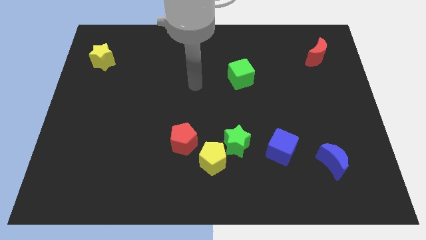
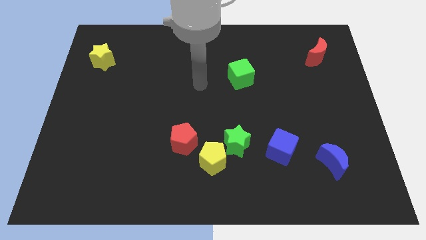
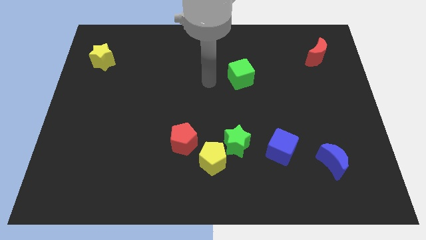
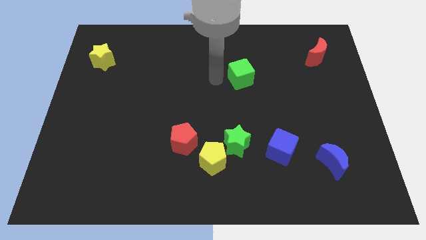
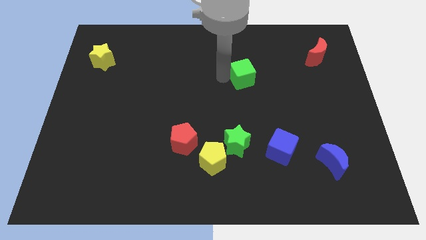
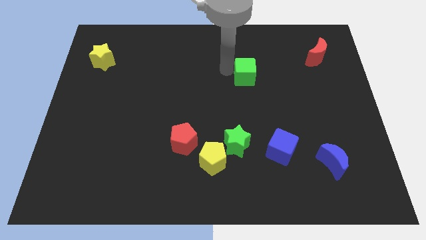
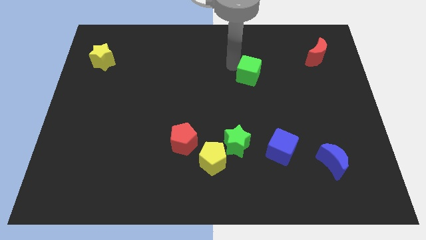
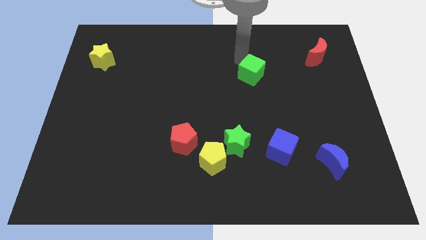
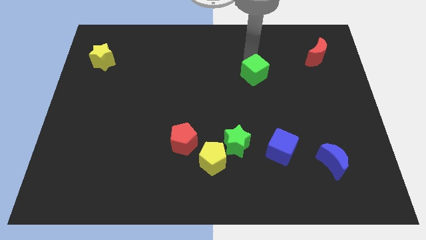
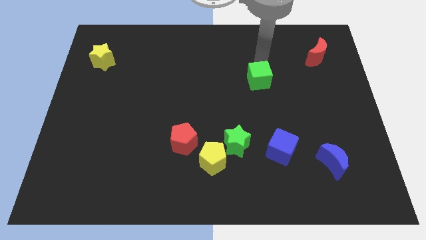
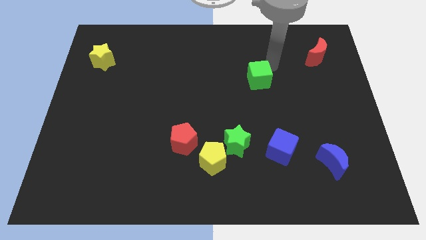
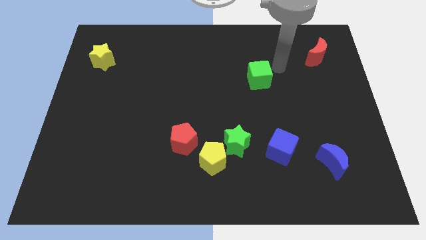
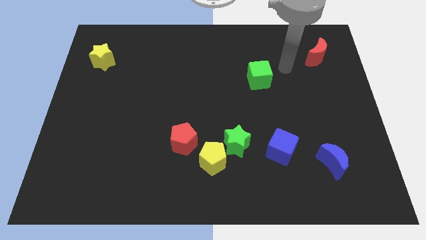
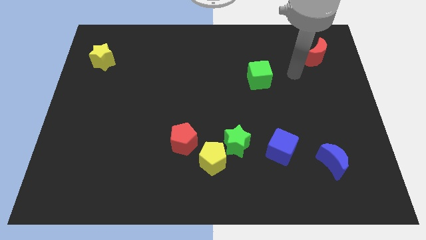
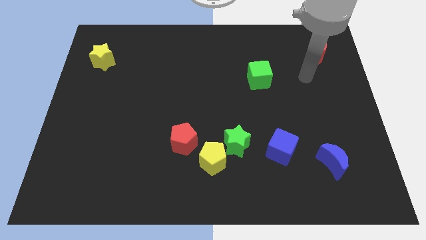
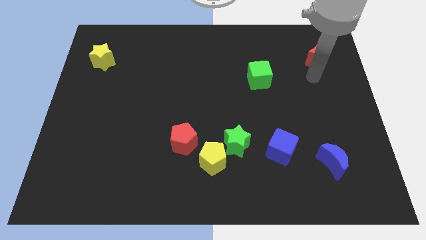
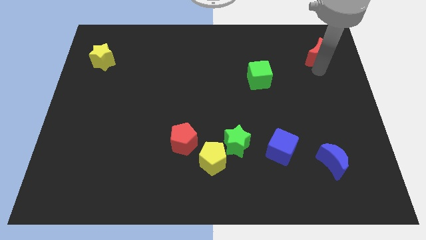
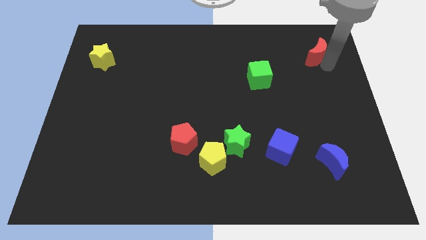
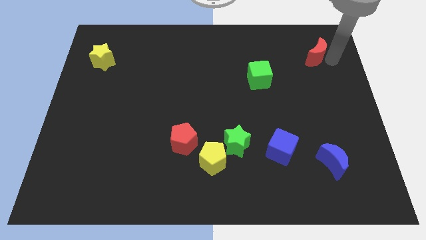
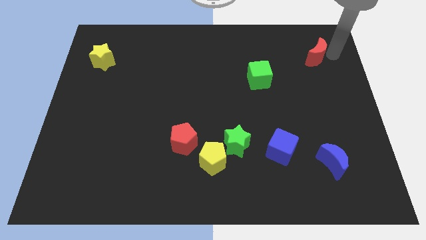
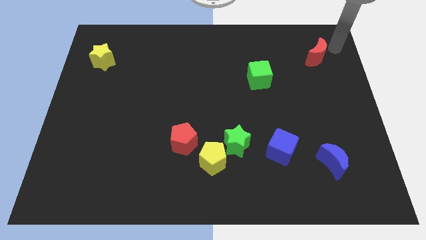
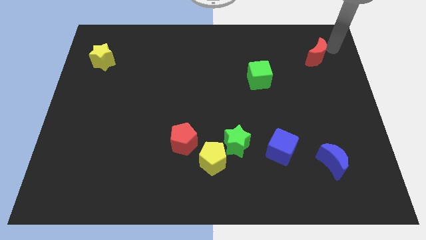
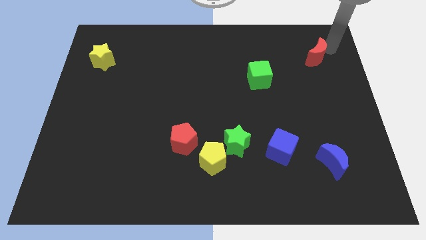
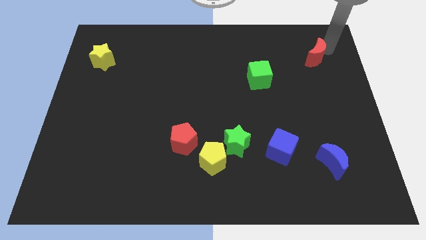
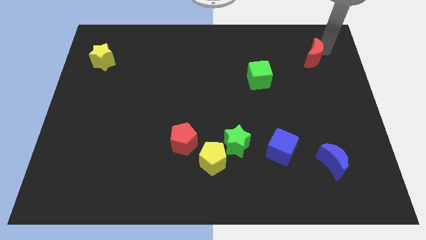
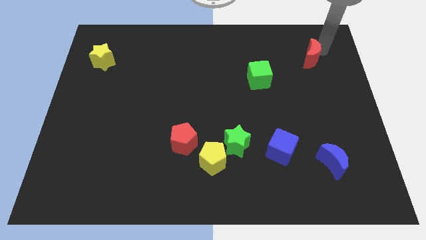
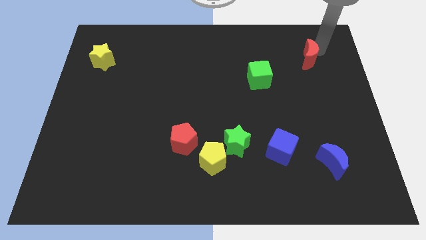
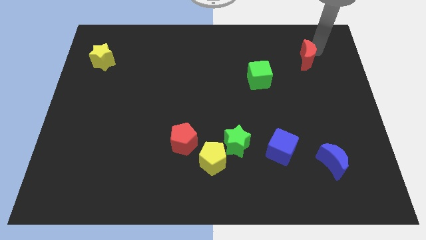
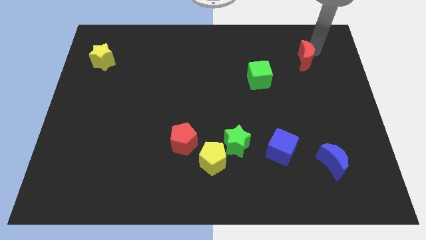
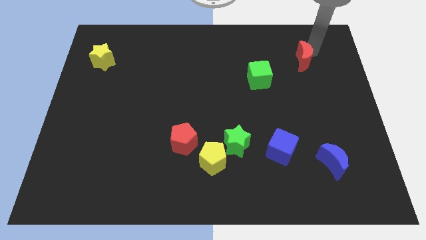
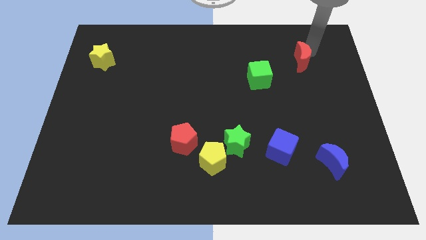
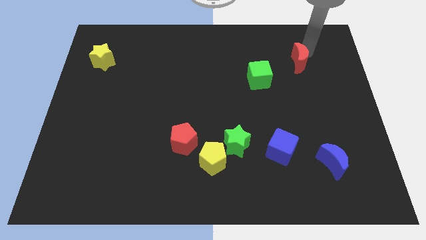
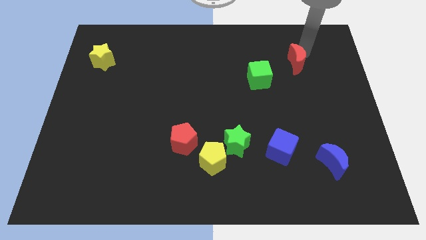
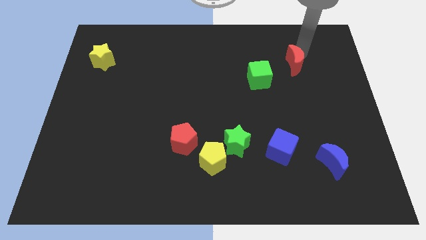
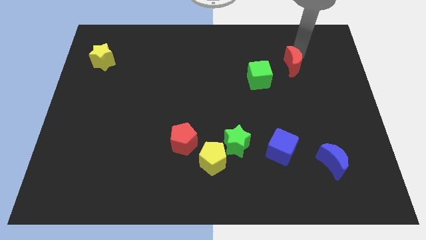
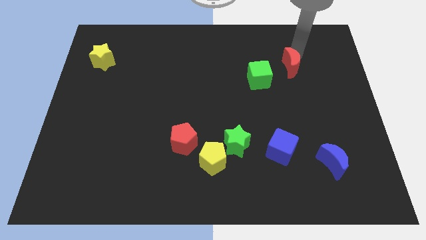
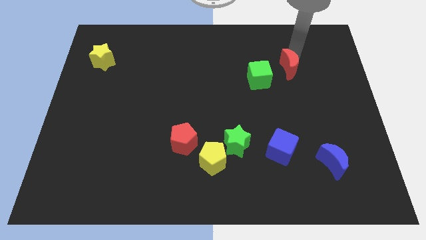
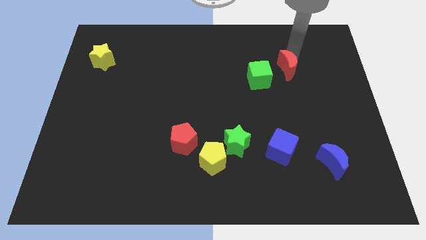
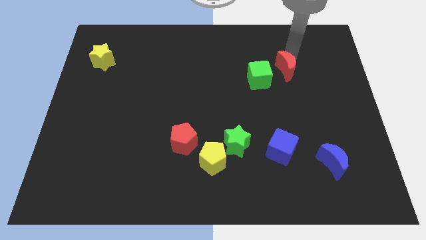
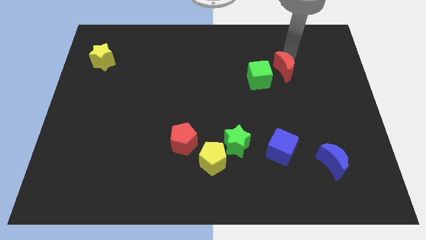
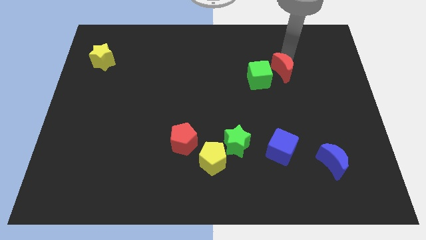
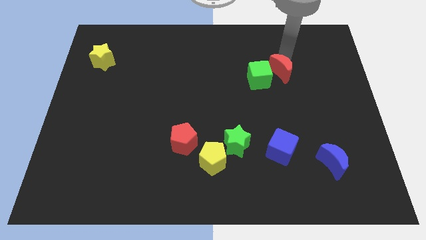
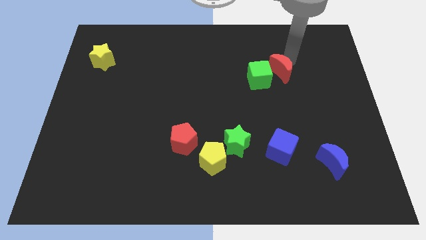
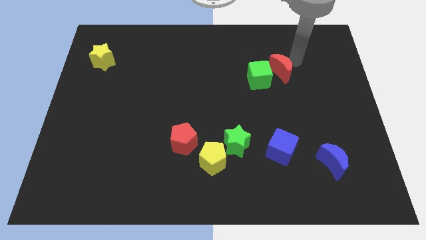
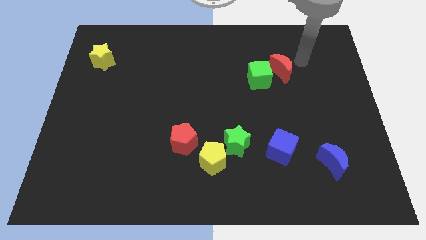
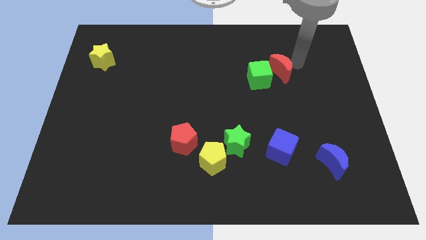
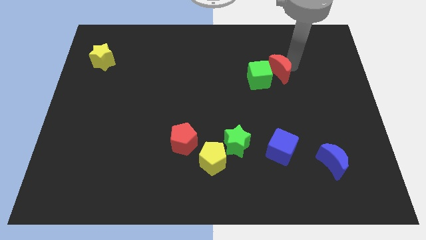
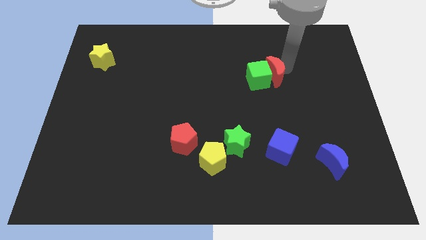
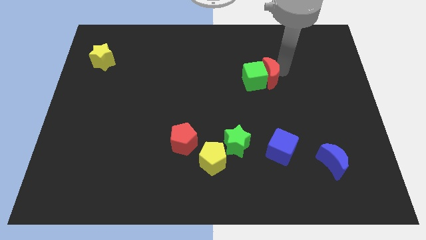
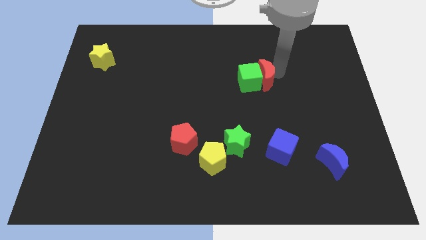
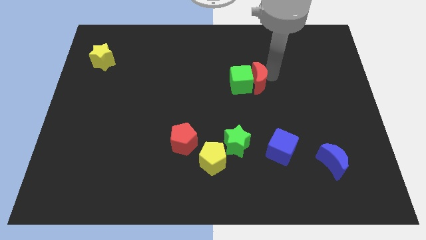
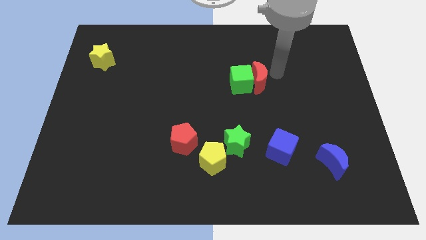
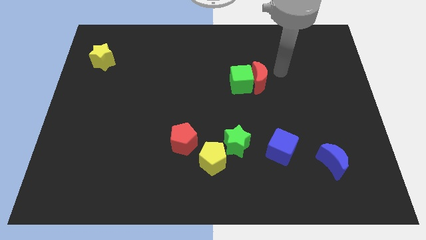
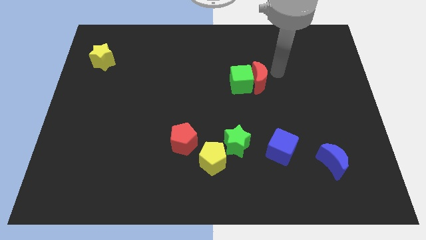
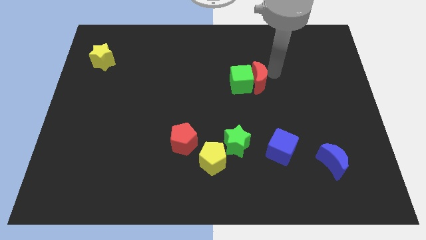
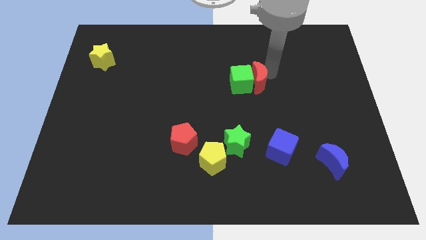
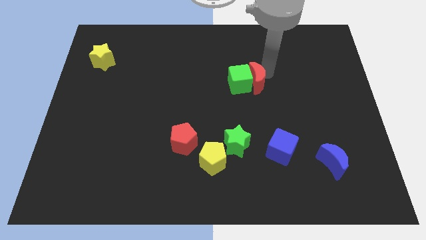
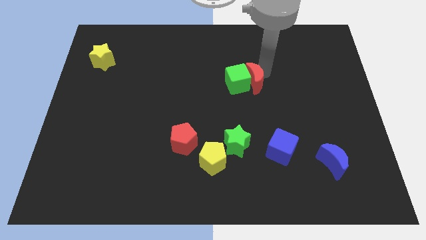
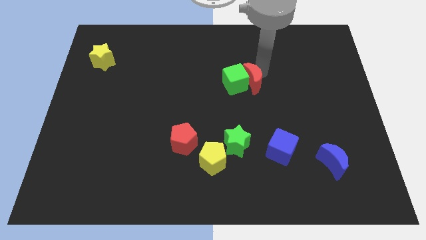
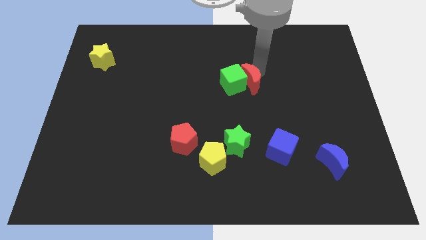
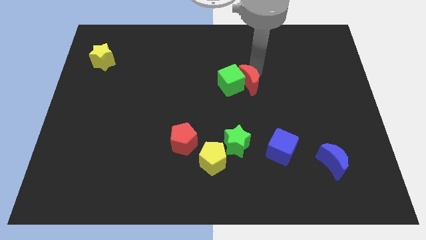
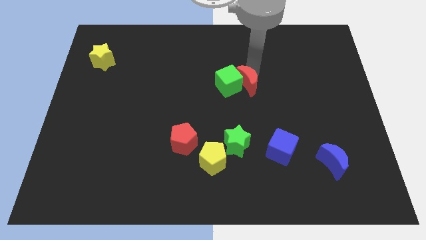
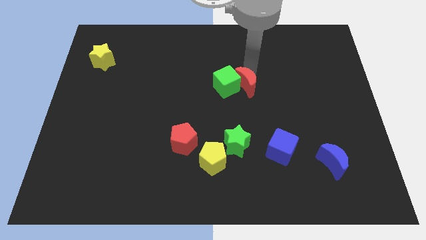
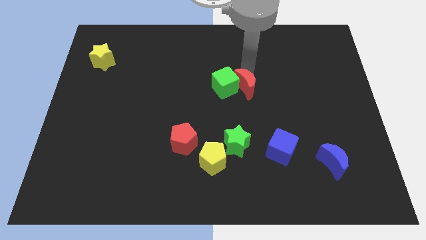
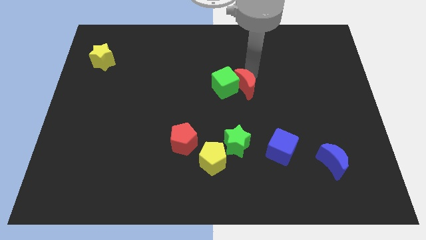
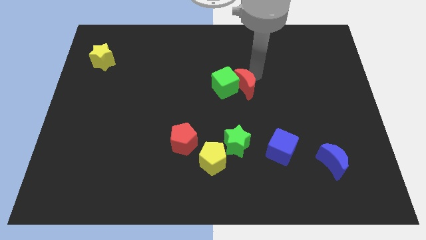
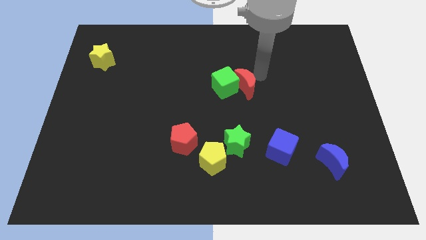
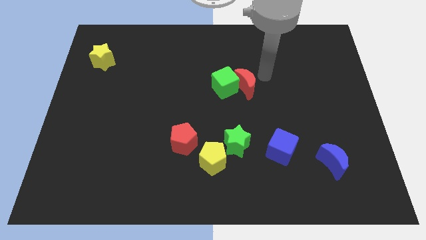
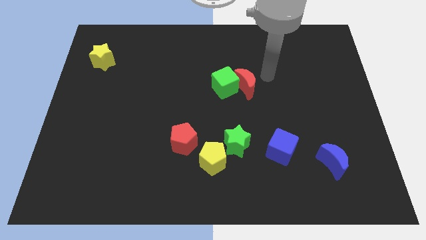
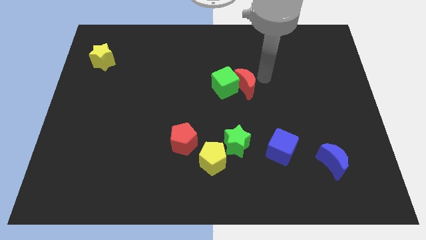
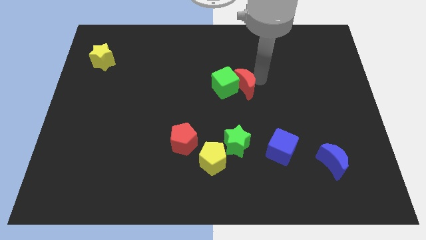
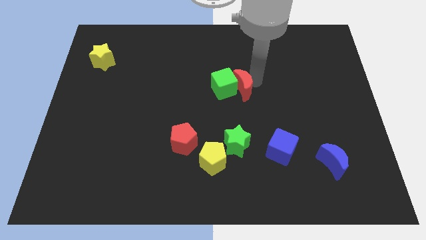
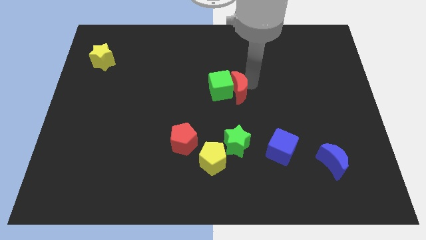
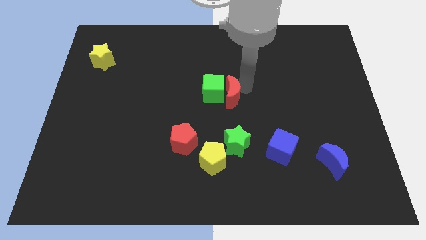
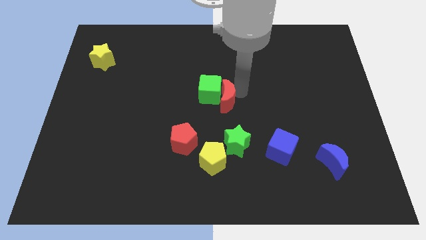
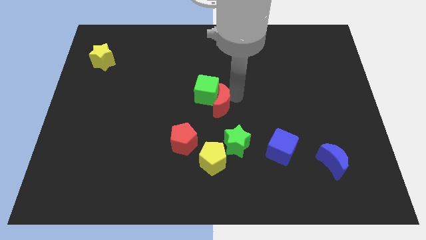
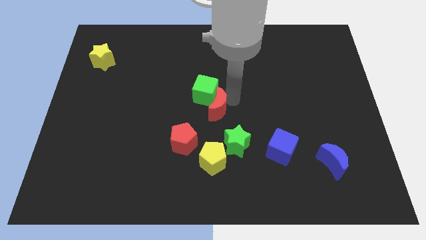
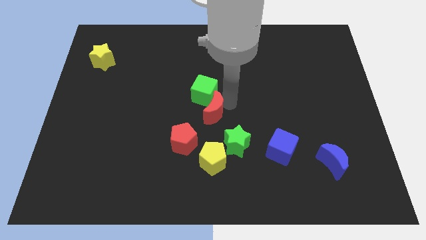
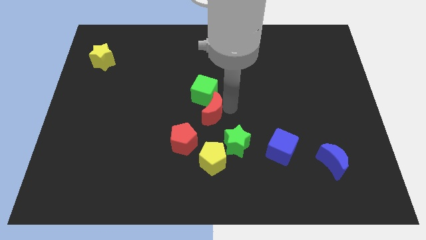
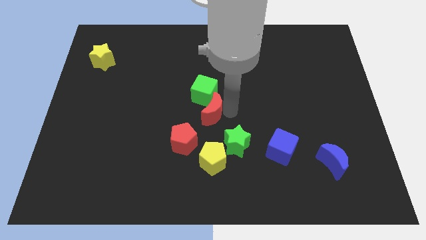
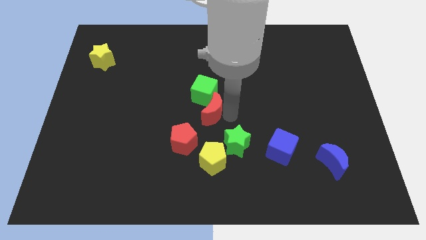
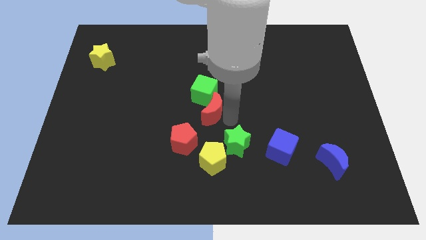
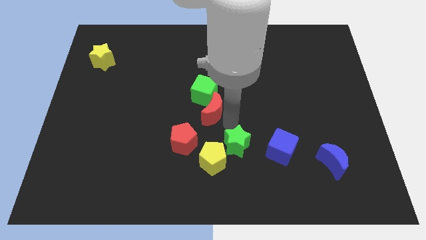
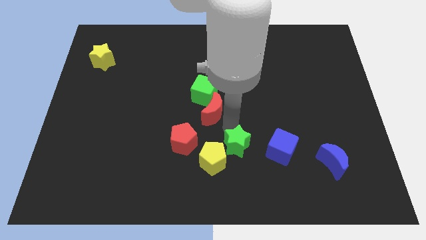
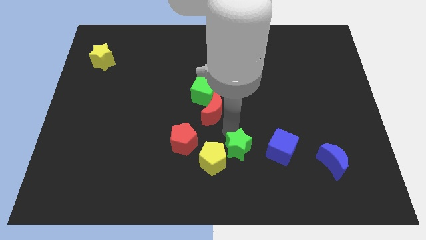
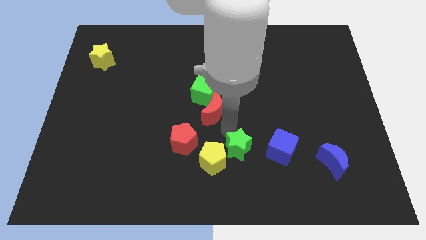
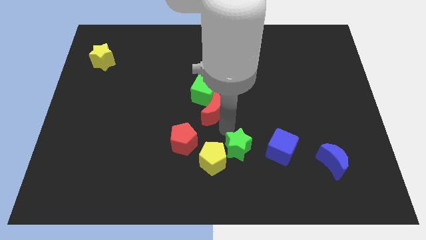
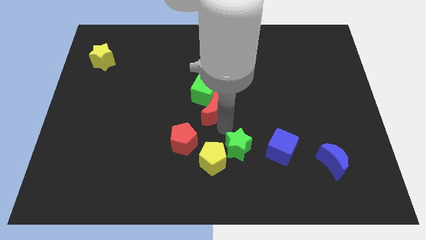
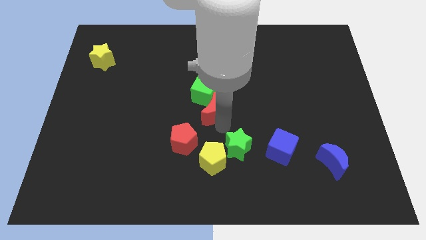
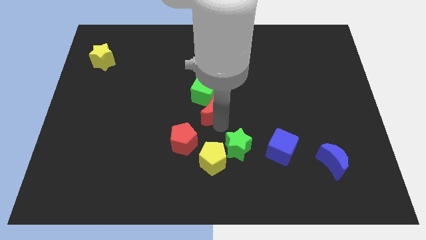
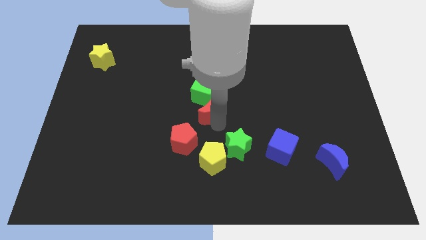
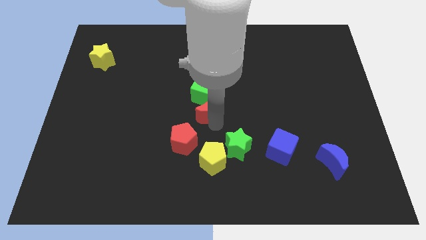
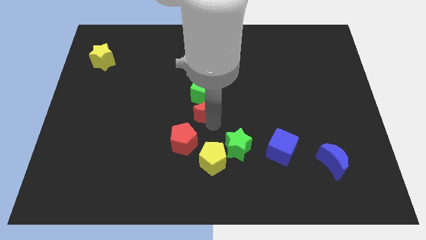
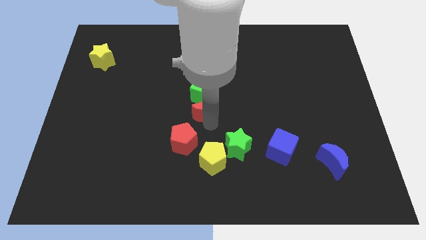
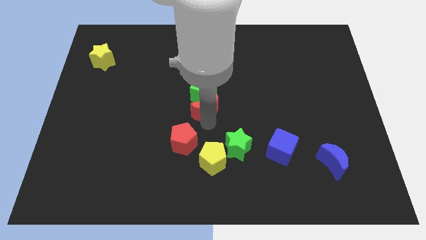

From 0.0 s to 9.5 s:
move the red moon above the red pentagon
